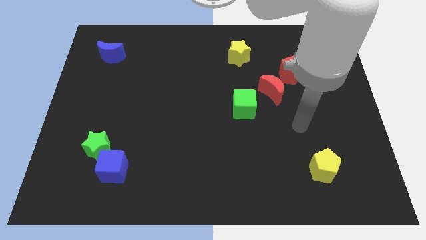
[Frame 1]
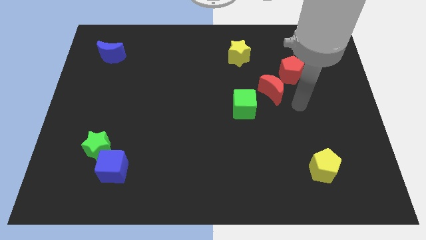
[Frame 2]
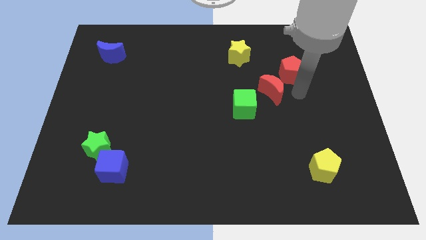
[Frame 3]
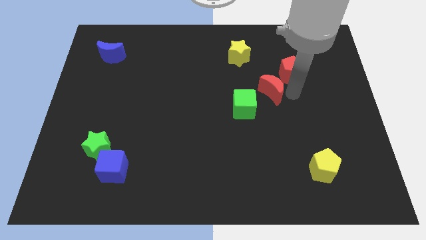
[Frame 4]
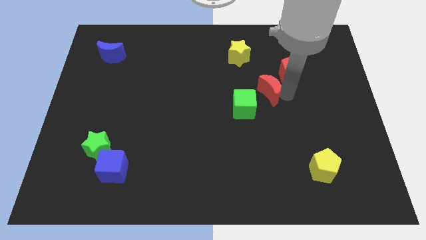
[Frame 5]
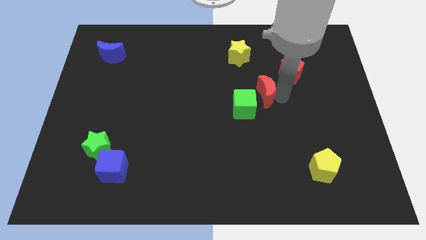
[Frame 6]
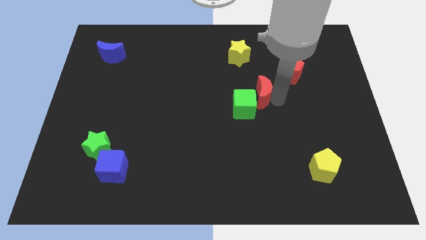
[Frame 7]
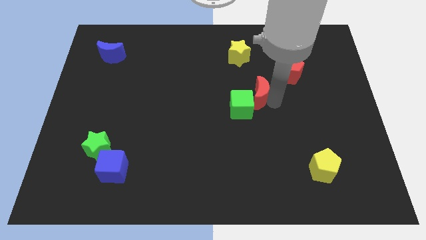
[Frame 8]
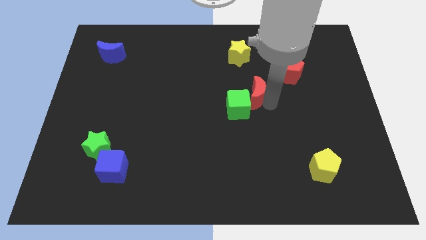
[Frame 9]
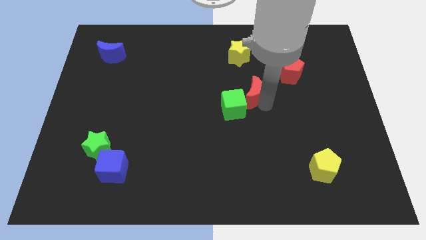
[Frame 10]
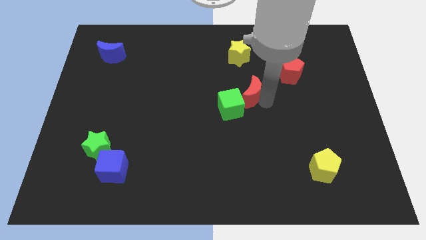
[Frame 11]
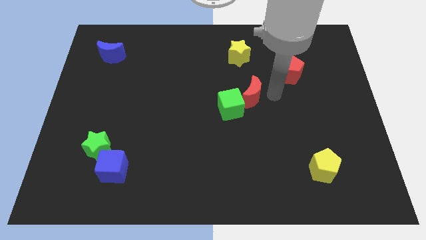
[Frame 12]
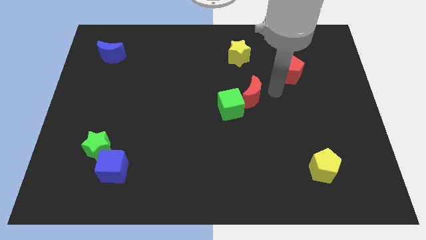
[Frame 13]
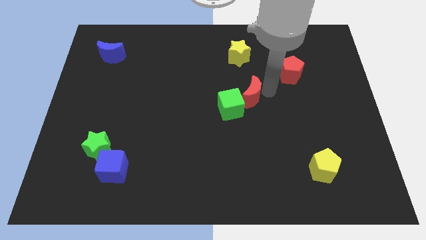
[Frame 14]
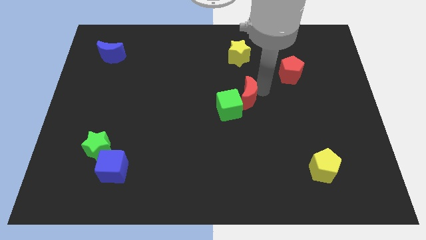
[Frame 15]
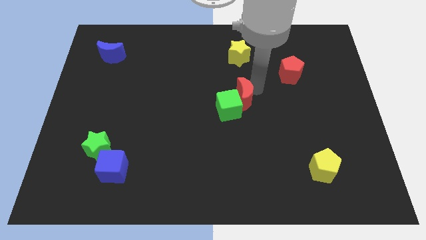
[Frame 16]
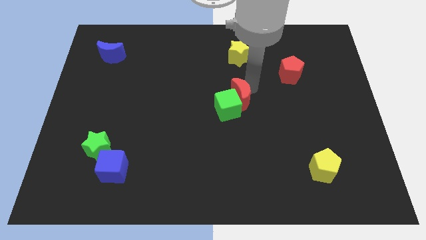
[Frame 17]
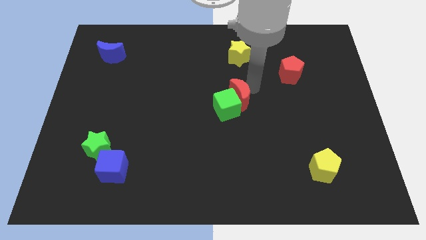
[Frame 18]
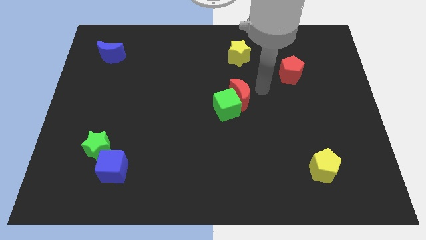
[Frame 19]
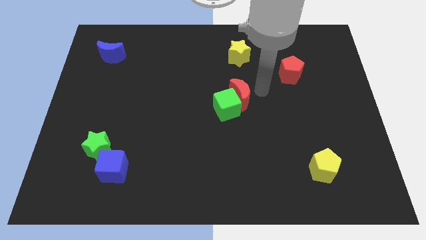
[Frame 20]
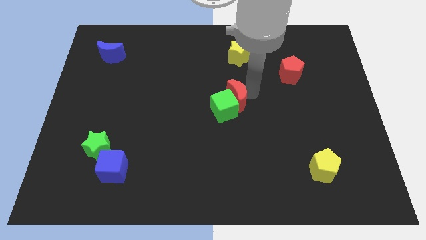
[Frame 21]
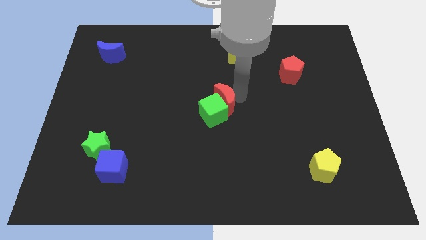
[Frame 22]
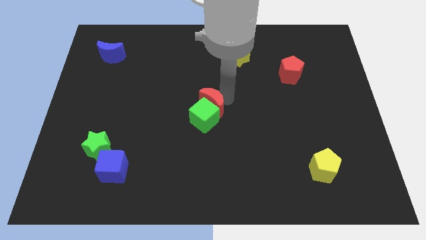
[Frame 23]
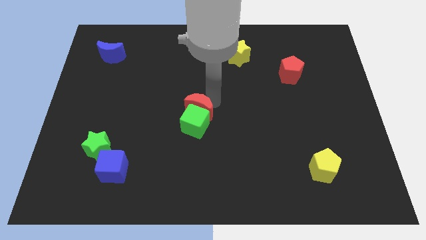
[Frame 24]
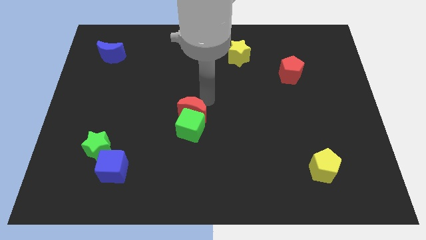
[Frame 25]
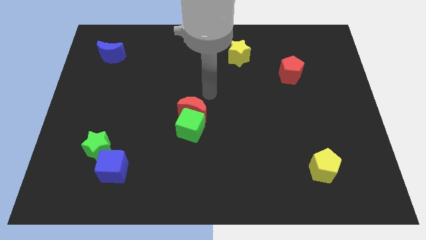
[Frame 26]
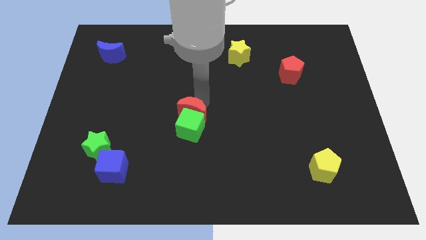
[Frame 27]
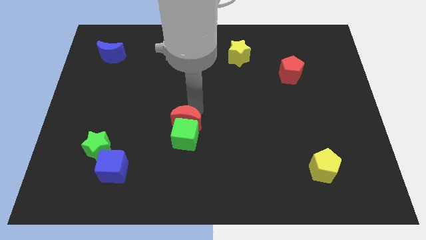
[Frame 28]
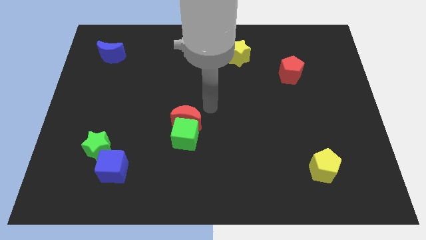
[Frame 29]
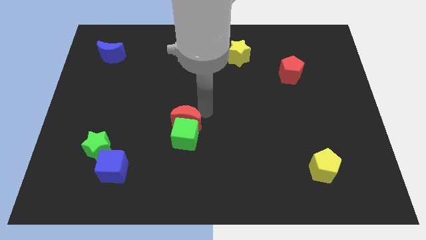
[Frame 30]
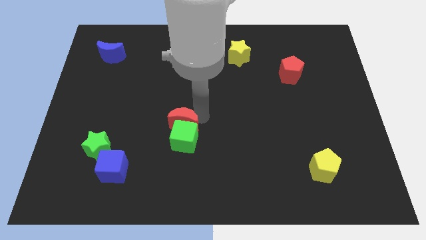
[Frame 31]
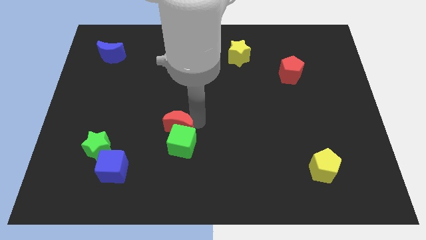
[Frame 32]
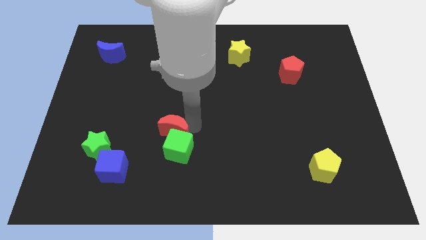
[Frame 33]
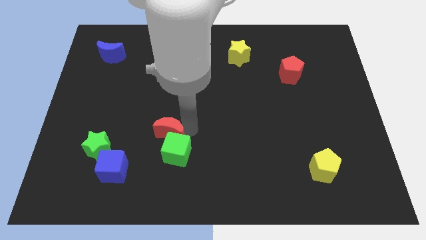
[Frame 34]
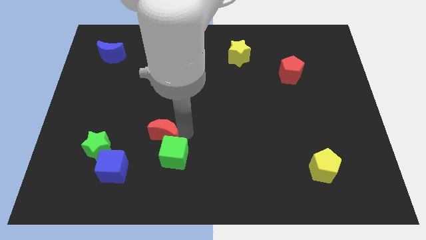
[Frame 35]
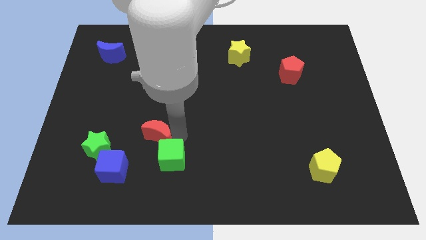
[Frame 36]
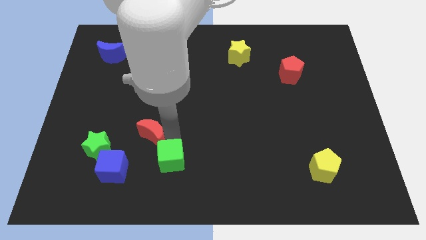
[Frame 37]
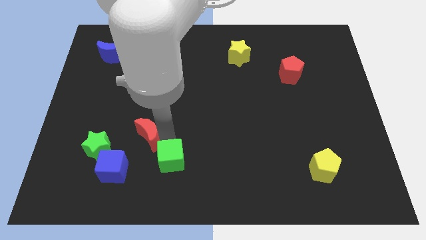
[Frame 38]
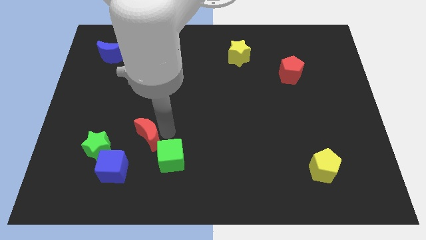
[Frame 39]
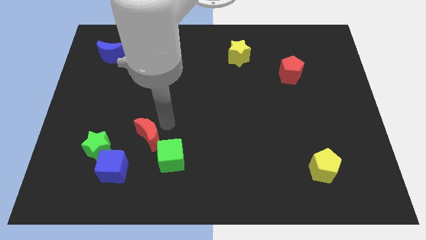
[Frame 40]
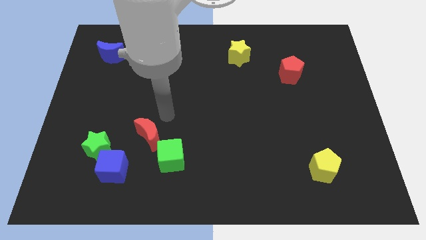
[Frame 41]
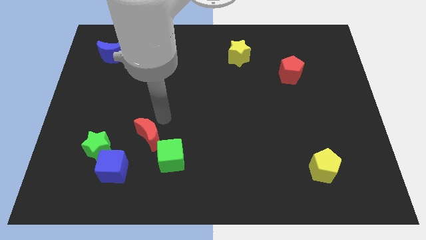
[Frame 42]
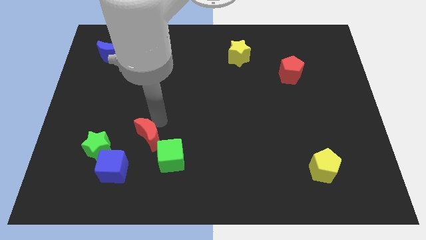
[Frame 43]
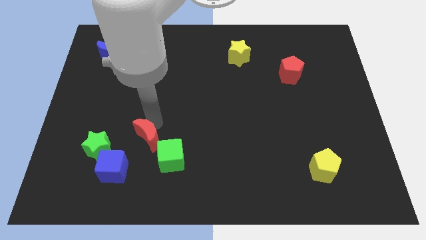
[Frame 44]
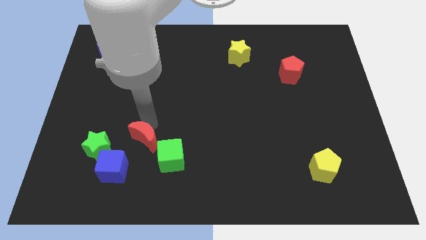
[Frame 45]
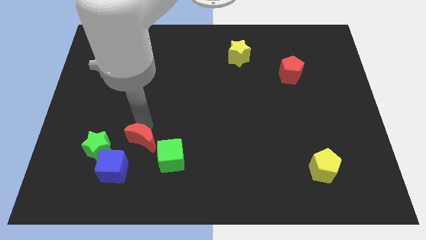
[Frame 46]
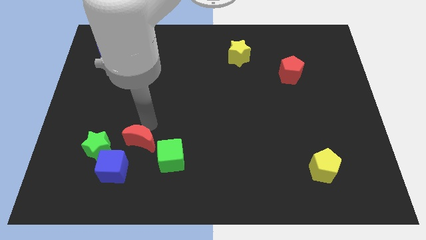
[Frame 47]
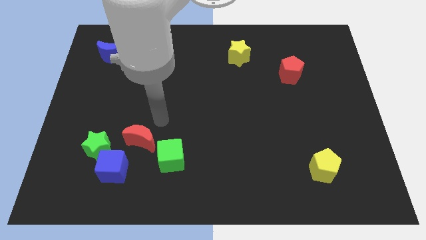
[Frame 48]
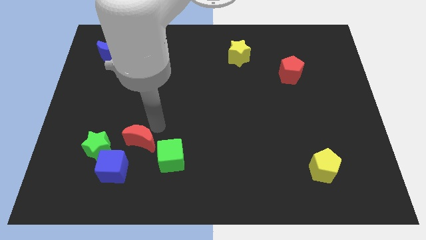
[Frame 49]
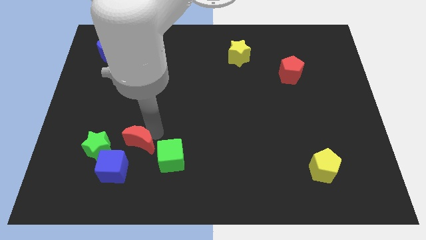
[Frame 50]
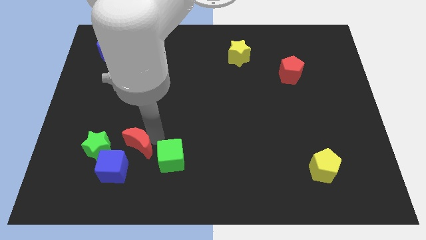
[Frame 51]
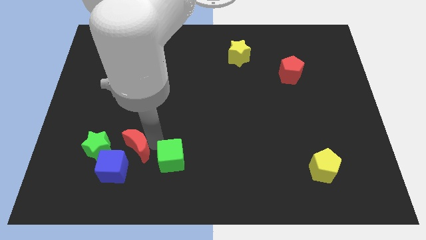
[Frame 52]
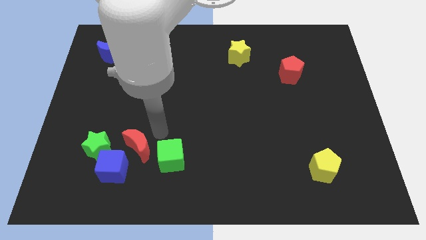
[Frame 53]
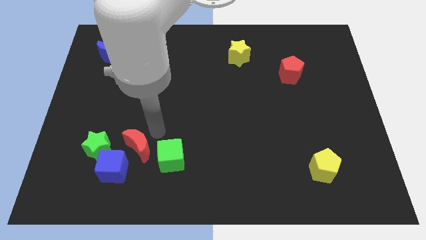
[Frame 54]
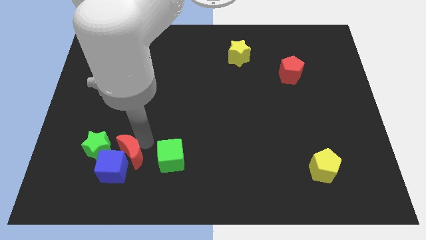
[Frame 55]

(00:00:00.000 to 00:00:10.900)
push the red moon next to the blue cube

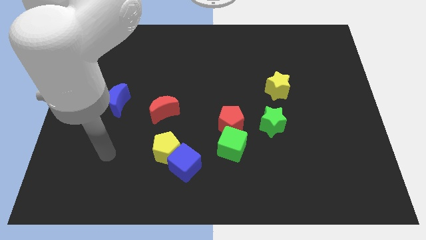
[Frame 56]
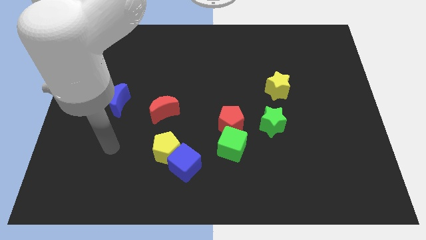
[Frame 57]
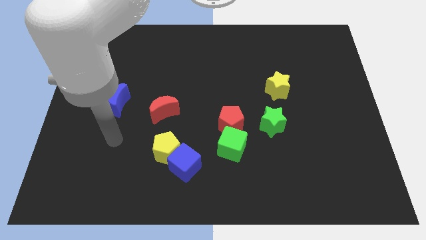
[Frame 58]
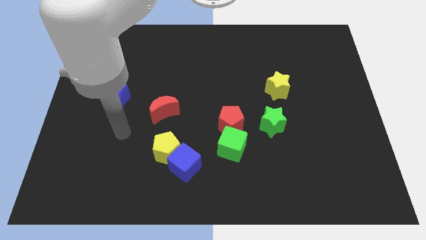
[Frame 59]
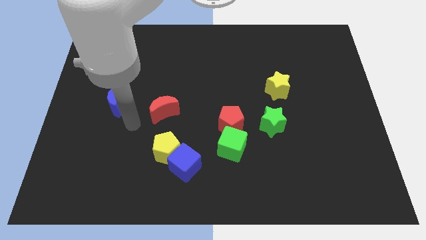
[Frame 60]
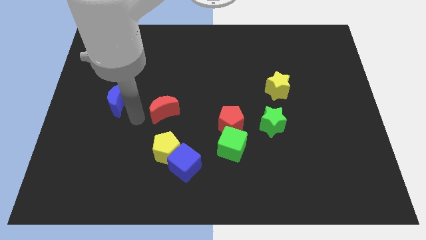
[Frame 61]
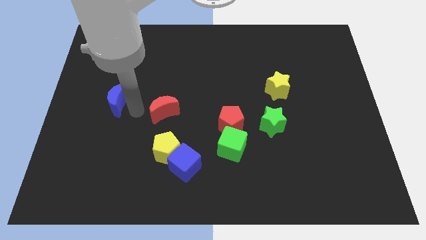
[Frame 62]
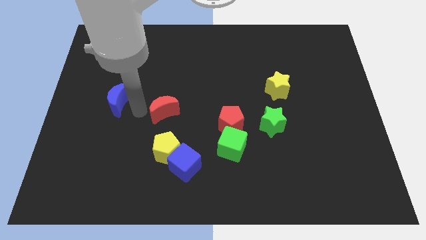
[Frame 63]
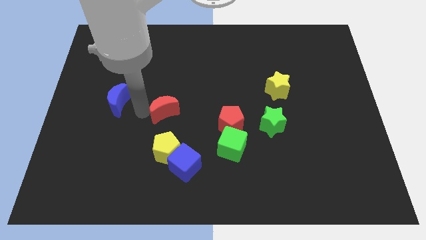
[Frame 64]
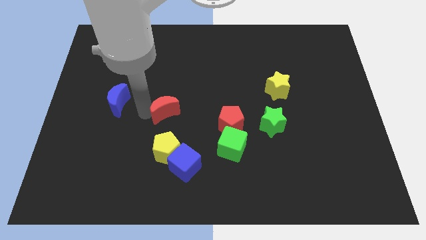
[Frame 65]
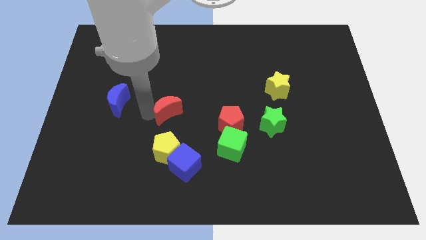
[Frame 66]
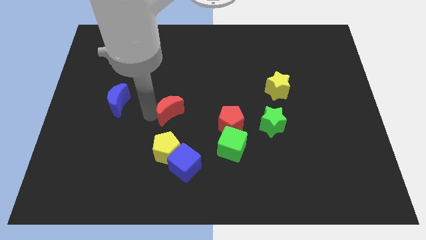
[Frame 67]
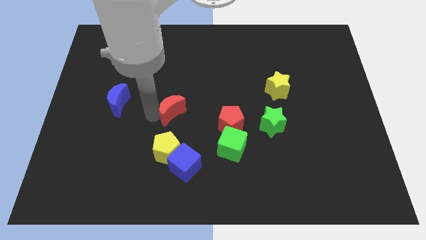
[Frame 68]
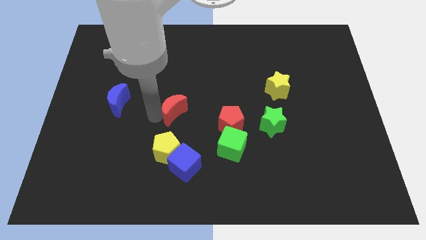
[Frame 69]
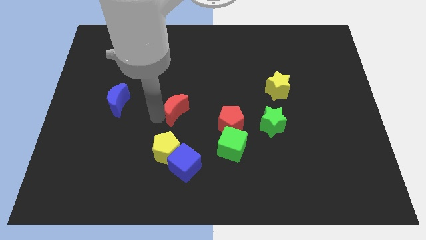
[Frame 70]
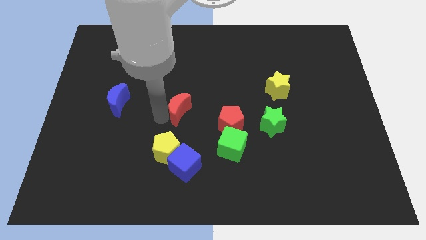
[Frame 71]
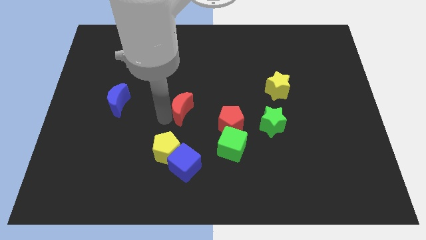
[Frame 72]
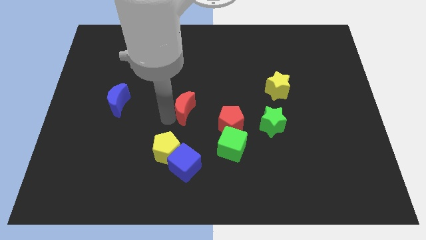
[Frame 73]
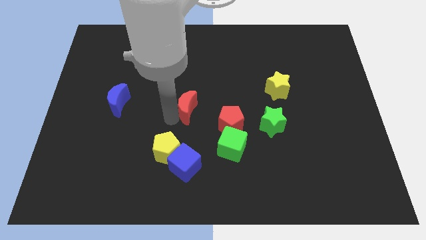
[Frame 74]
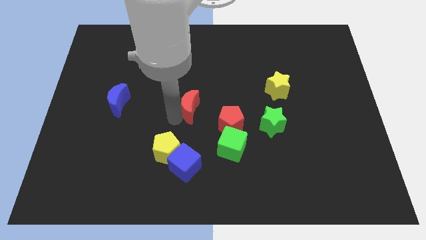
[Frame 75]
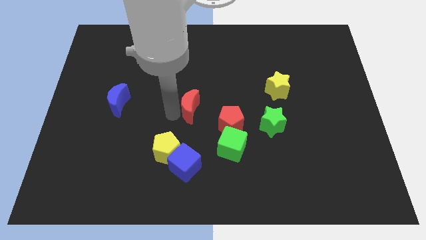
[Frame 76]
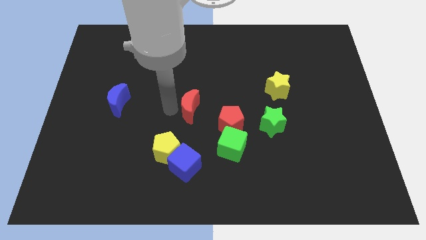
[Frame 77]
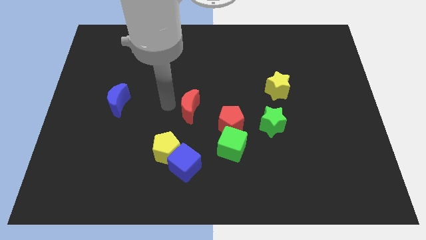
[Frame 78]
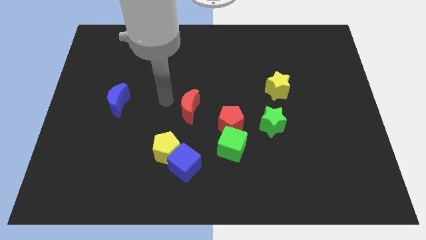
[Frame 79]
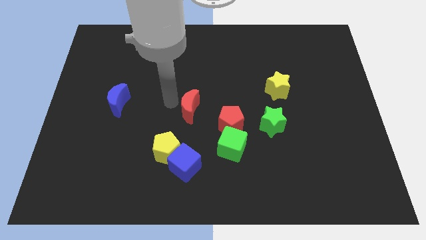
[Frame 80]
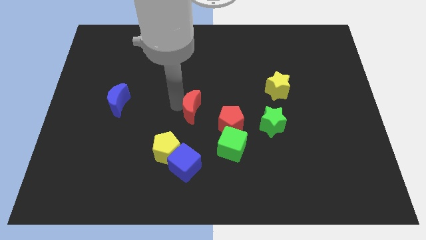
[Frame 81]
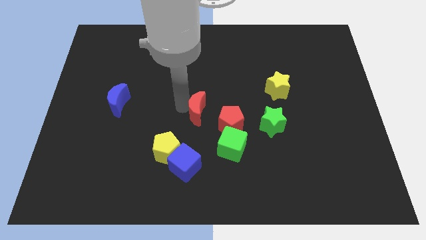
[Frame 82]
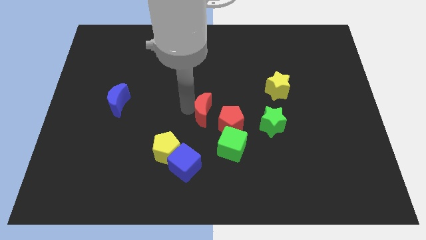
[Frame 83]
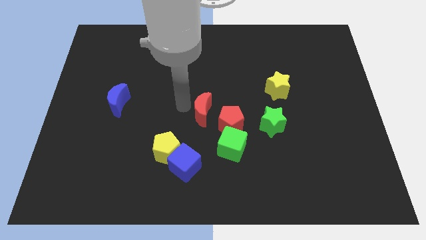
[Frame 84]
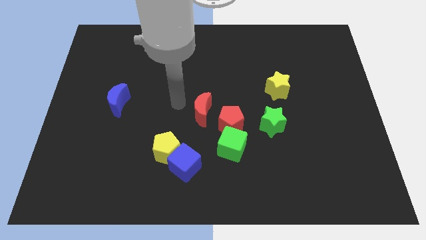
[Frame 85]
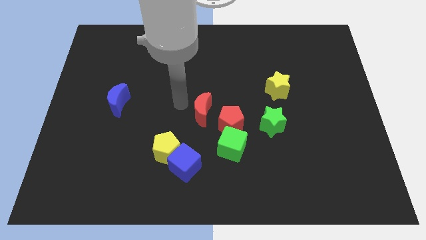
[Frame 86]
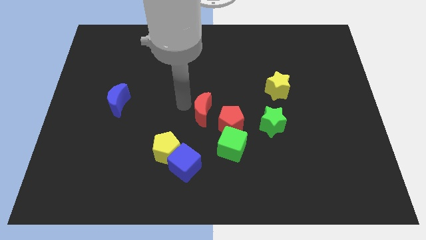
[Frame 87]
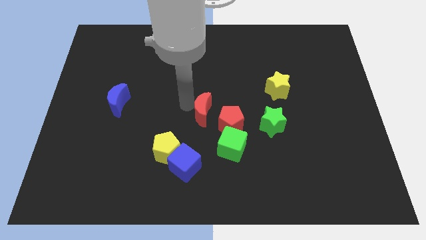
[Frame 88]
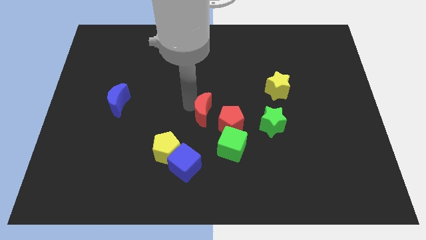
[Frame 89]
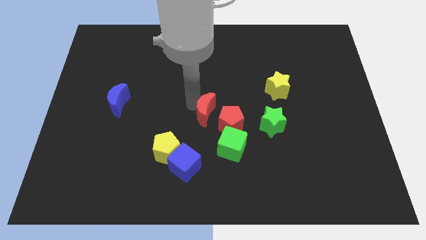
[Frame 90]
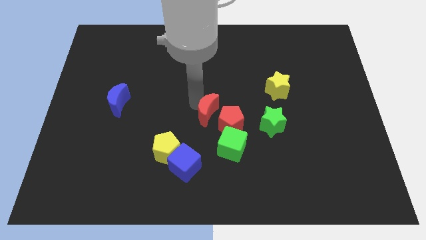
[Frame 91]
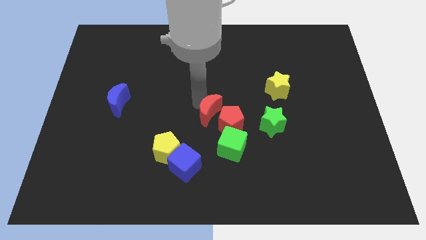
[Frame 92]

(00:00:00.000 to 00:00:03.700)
push the red moon towards the red pentagon
